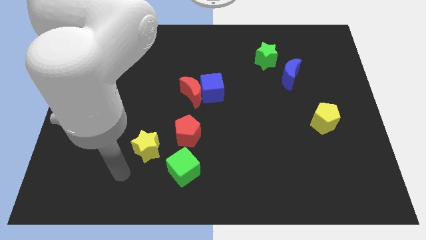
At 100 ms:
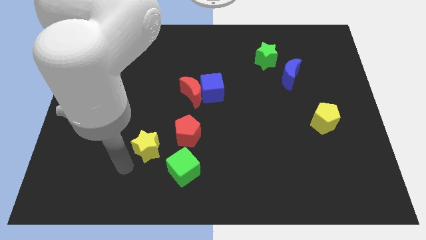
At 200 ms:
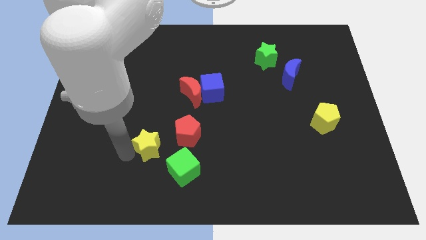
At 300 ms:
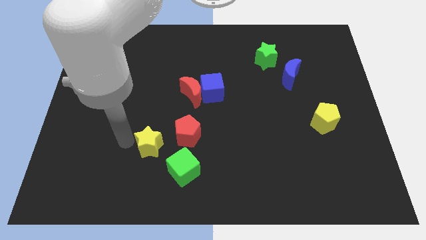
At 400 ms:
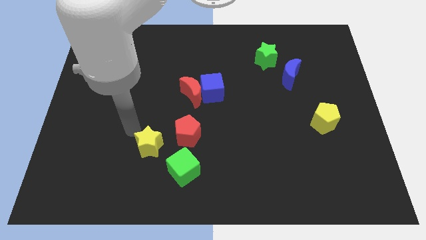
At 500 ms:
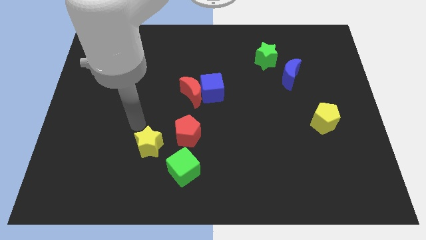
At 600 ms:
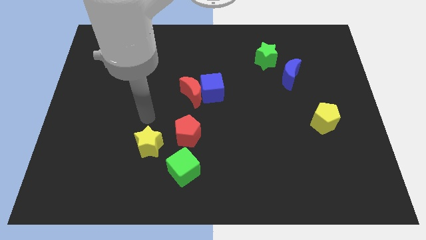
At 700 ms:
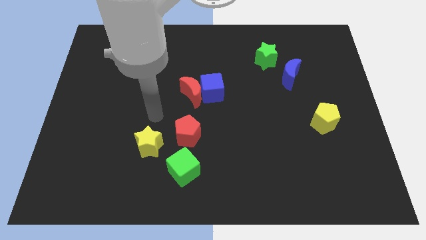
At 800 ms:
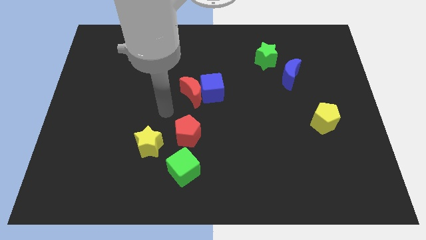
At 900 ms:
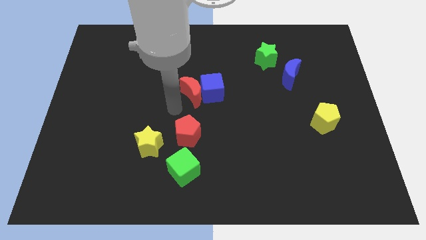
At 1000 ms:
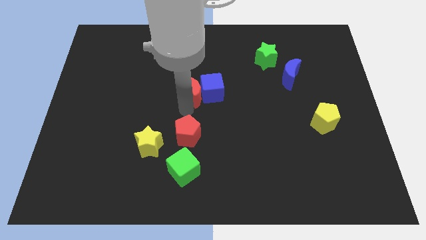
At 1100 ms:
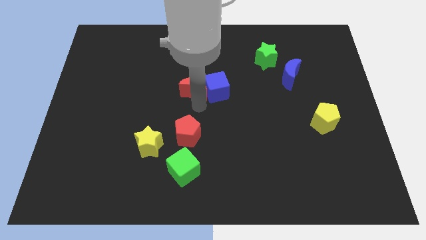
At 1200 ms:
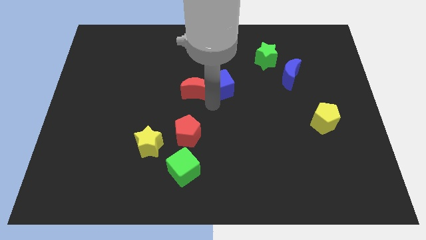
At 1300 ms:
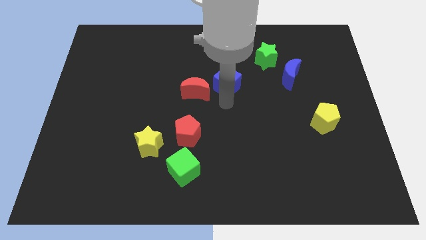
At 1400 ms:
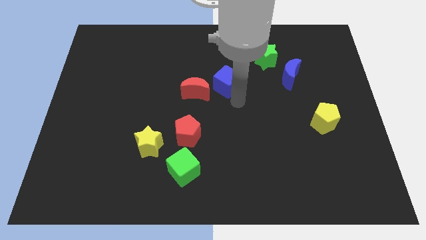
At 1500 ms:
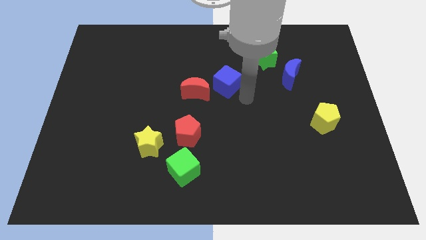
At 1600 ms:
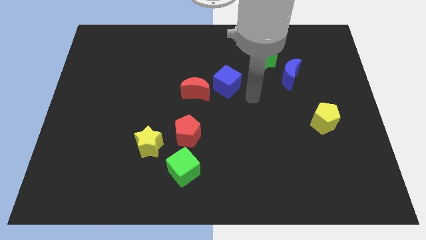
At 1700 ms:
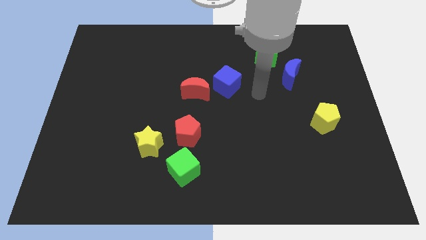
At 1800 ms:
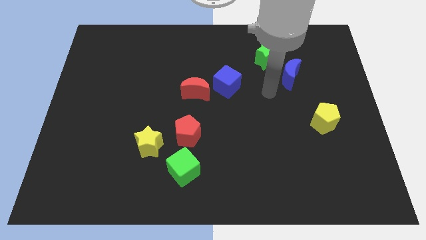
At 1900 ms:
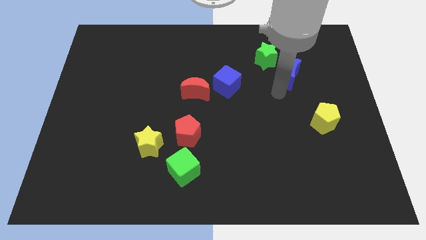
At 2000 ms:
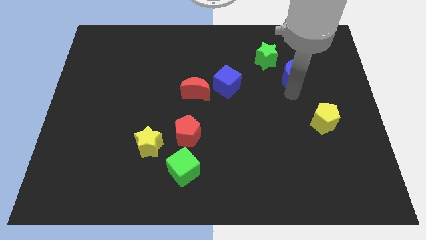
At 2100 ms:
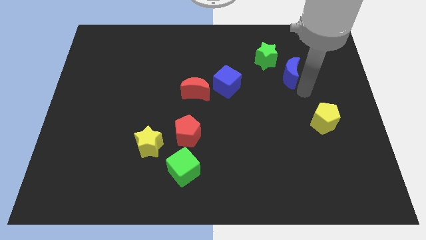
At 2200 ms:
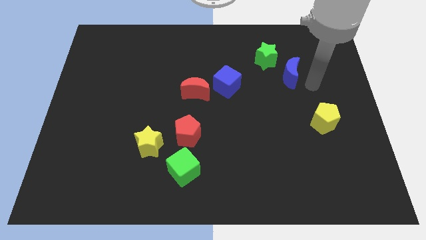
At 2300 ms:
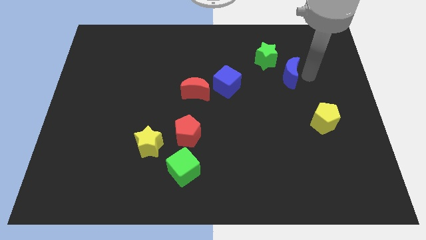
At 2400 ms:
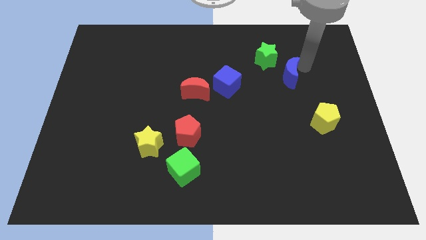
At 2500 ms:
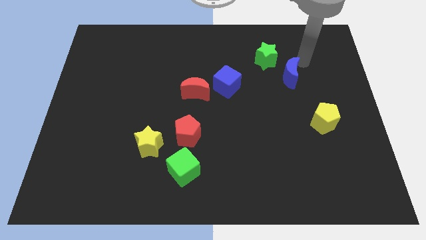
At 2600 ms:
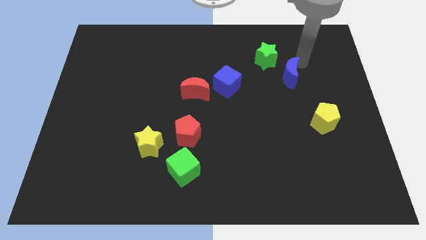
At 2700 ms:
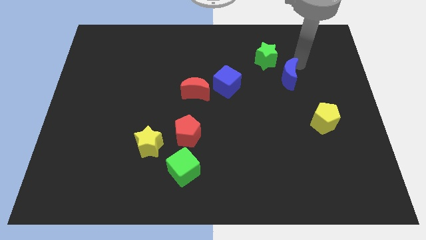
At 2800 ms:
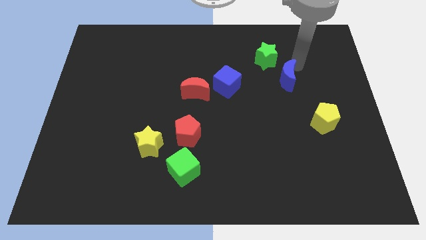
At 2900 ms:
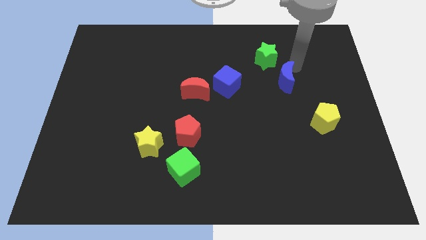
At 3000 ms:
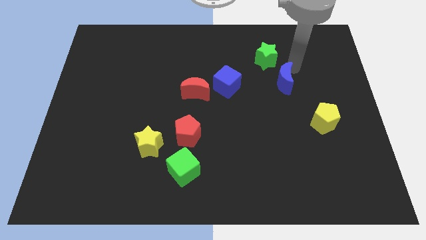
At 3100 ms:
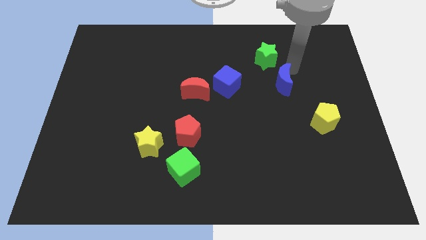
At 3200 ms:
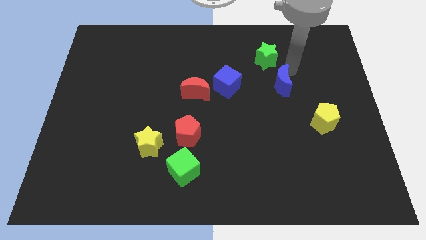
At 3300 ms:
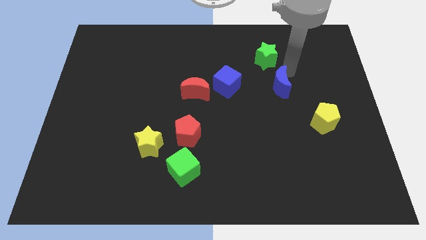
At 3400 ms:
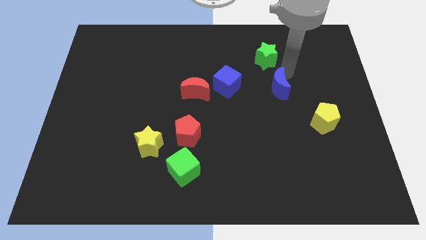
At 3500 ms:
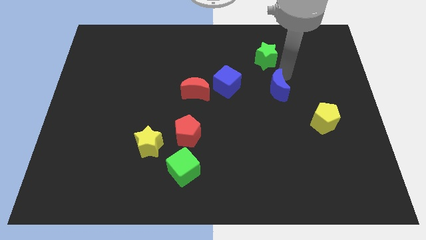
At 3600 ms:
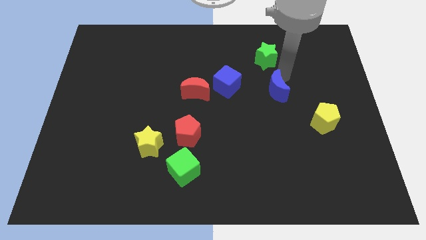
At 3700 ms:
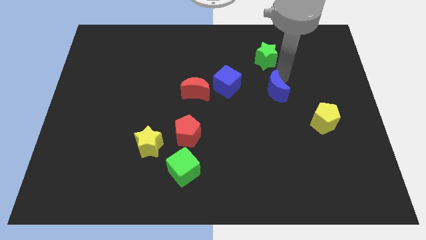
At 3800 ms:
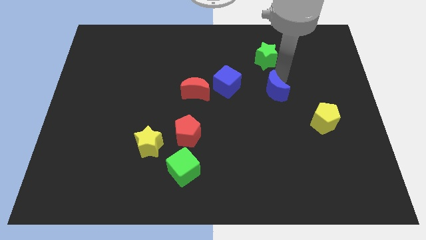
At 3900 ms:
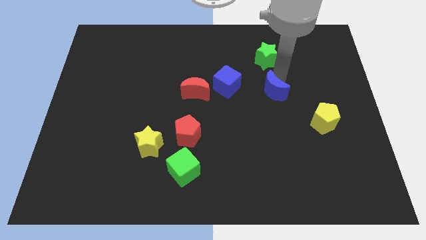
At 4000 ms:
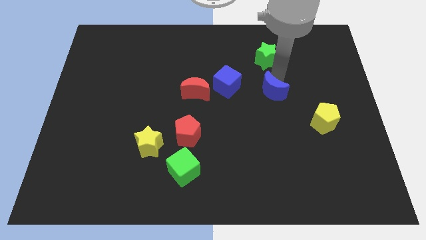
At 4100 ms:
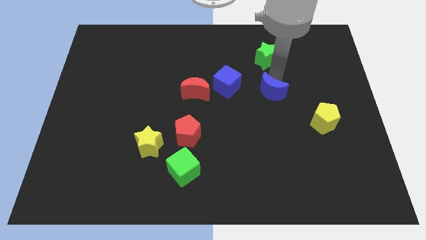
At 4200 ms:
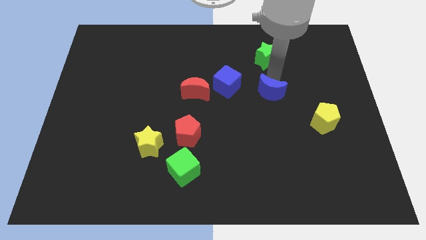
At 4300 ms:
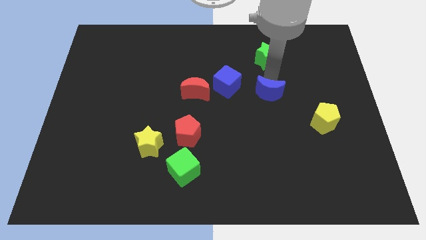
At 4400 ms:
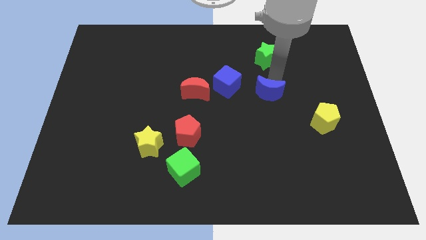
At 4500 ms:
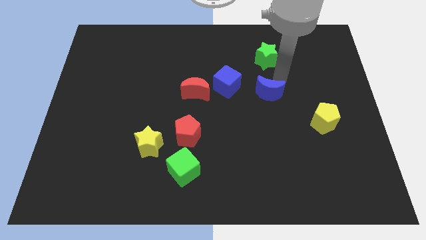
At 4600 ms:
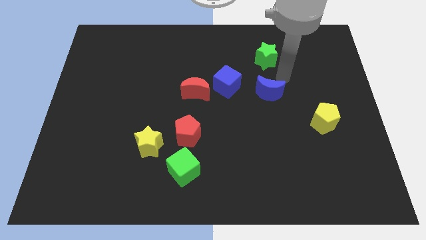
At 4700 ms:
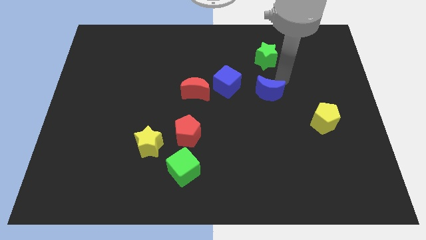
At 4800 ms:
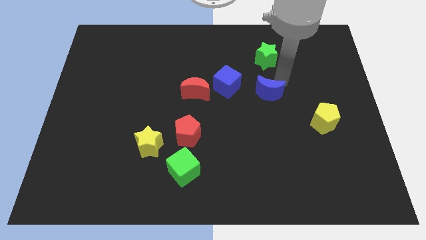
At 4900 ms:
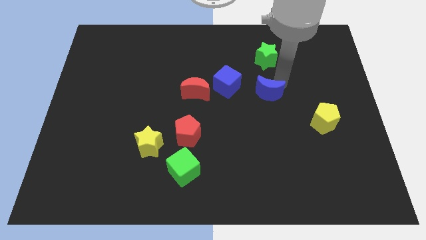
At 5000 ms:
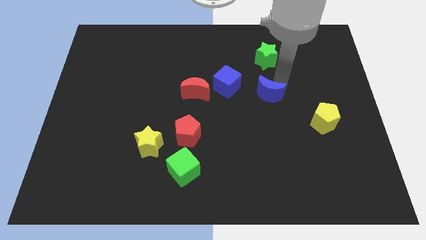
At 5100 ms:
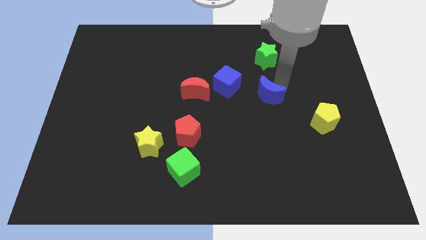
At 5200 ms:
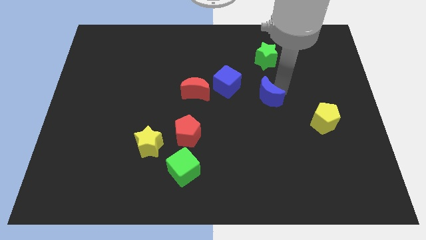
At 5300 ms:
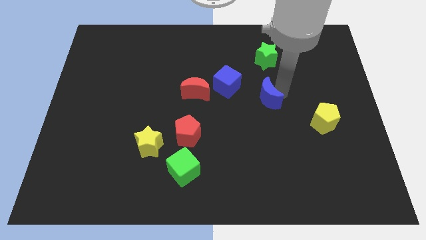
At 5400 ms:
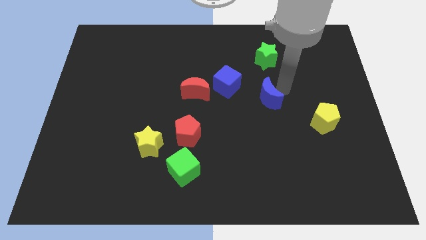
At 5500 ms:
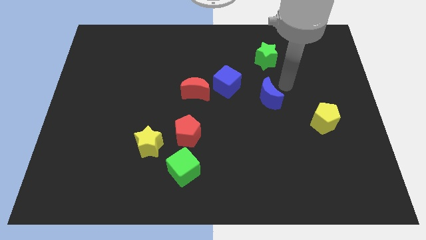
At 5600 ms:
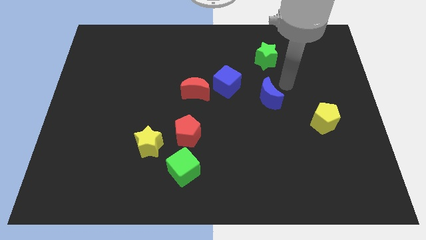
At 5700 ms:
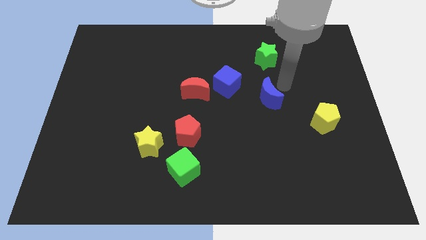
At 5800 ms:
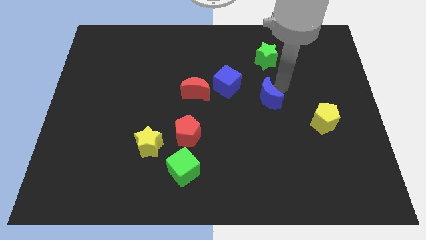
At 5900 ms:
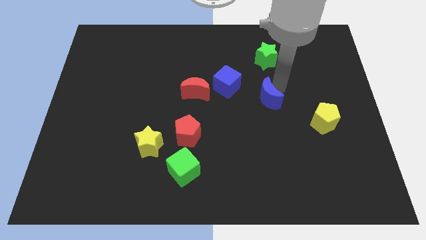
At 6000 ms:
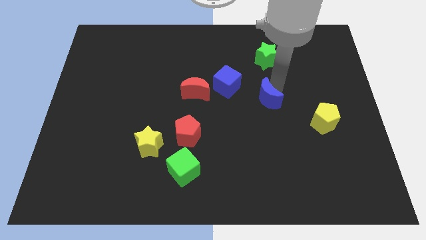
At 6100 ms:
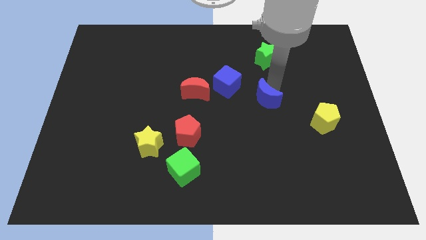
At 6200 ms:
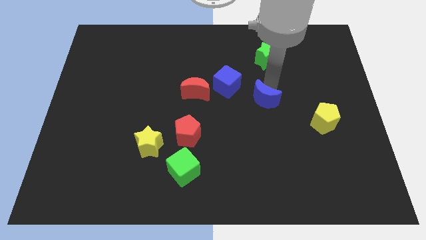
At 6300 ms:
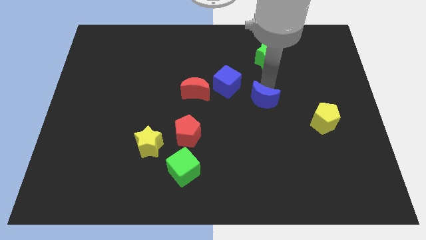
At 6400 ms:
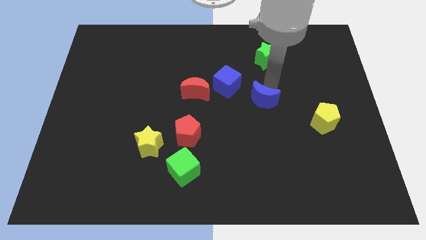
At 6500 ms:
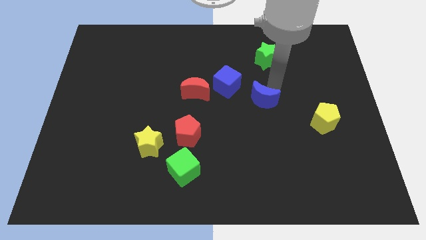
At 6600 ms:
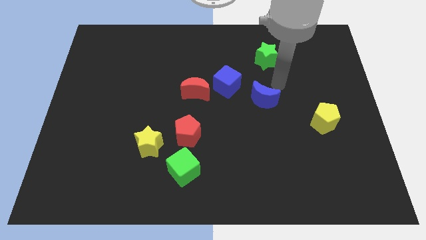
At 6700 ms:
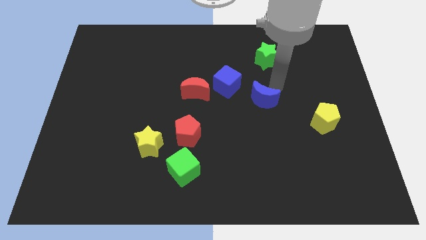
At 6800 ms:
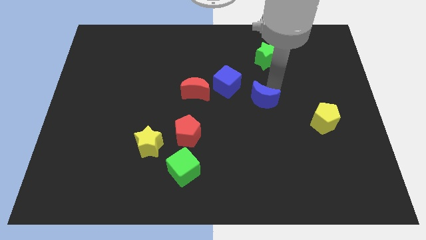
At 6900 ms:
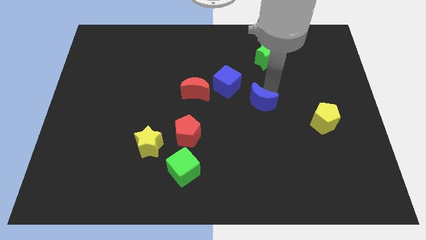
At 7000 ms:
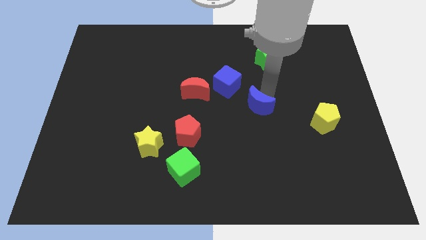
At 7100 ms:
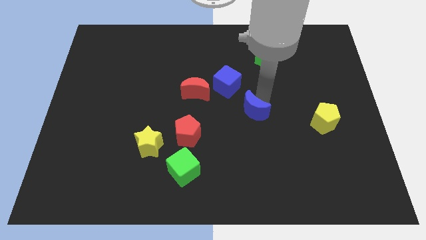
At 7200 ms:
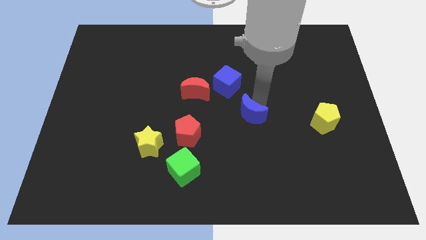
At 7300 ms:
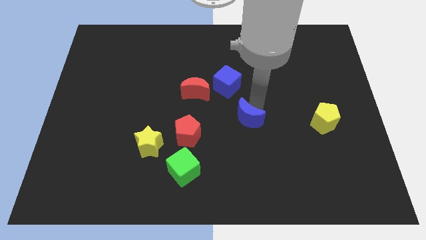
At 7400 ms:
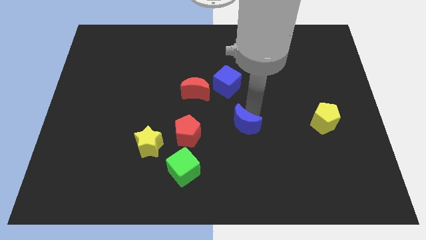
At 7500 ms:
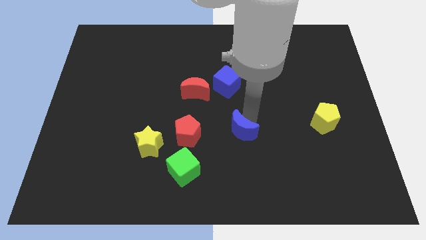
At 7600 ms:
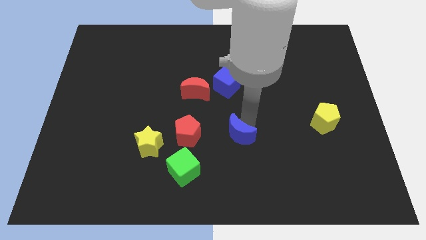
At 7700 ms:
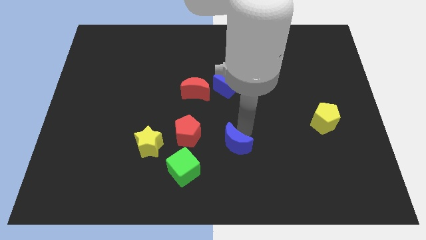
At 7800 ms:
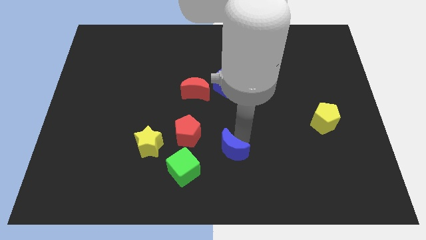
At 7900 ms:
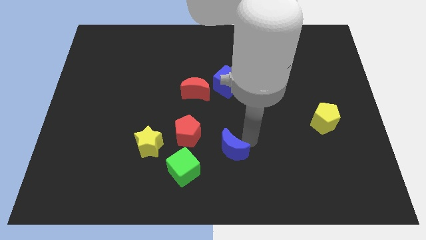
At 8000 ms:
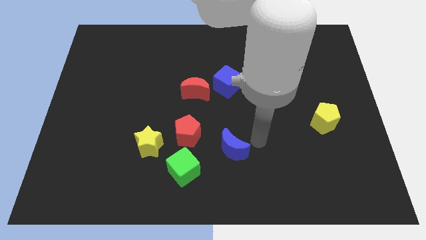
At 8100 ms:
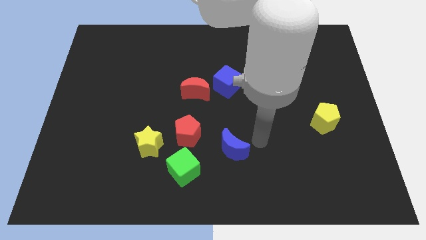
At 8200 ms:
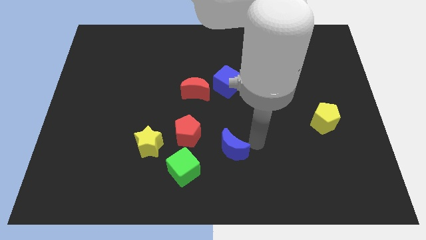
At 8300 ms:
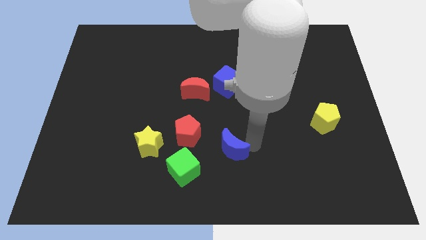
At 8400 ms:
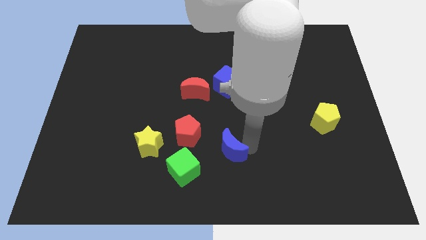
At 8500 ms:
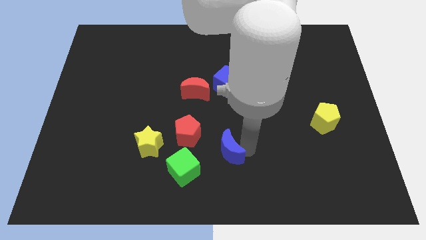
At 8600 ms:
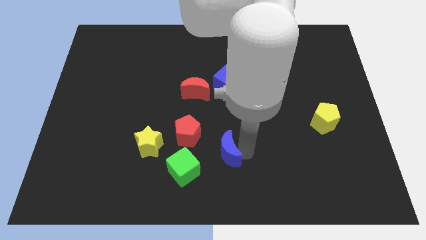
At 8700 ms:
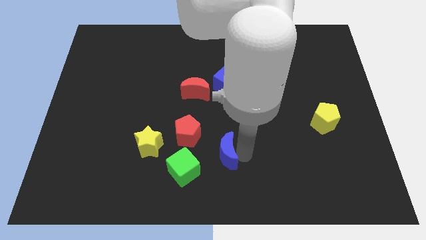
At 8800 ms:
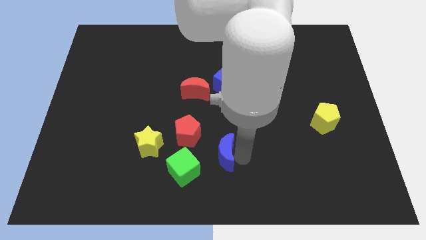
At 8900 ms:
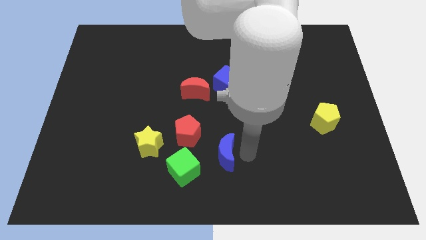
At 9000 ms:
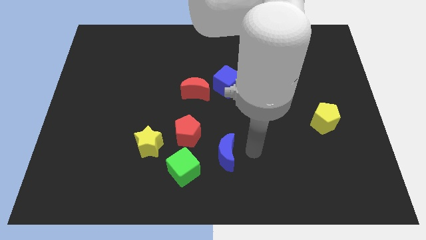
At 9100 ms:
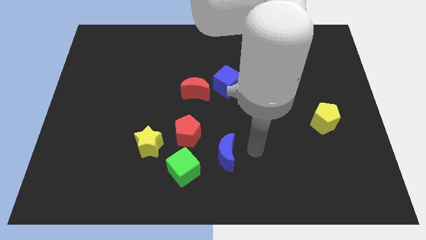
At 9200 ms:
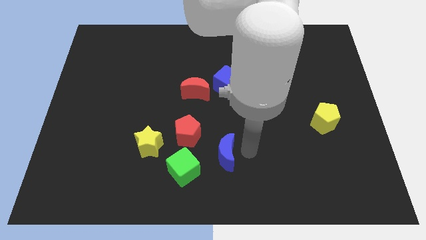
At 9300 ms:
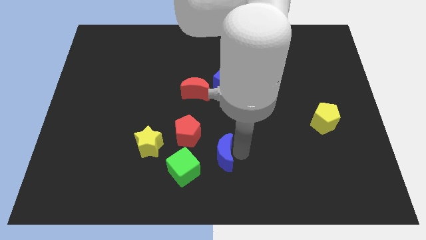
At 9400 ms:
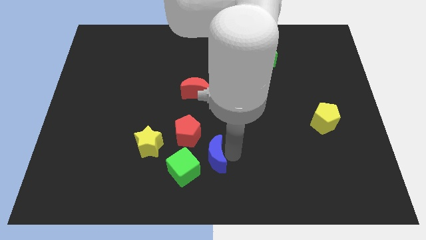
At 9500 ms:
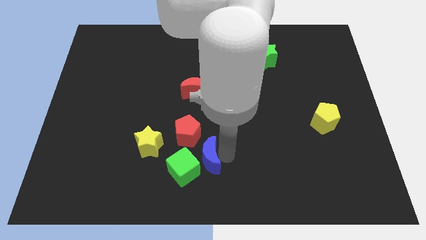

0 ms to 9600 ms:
push the blue moon towards the green cube
